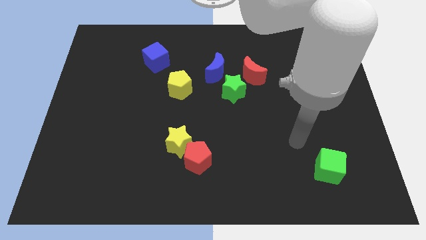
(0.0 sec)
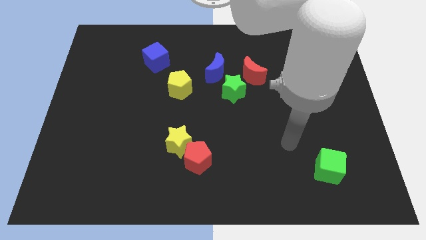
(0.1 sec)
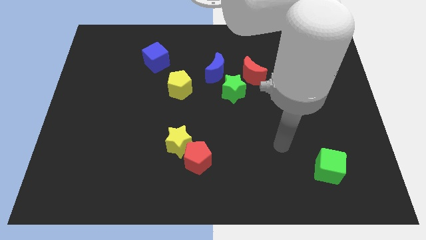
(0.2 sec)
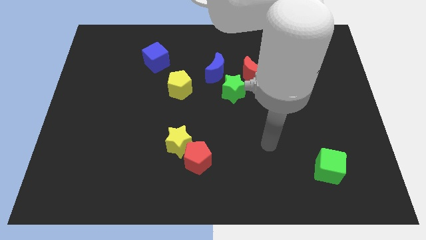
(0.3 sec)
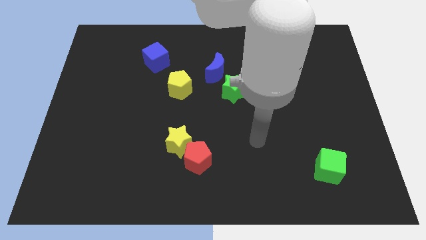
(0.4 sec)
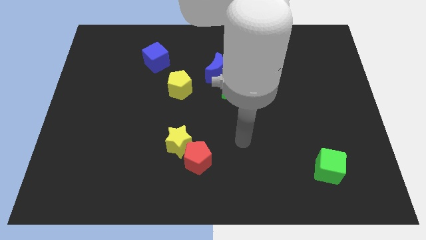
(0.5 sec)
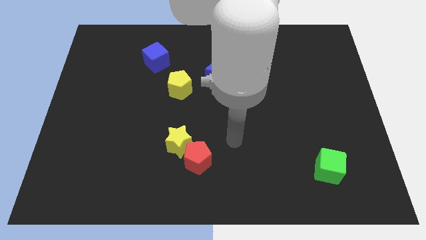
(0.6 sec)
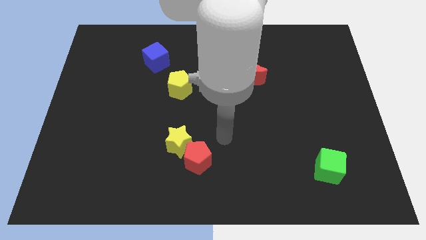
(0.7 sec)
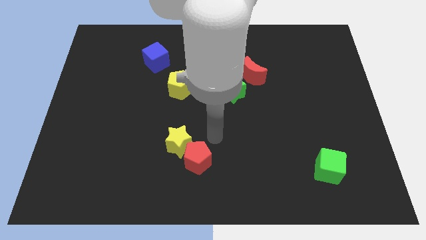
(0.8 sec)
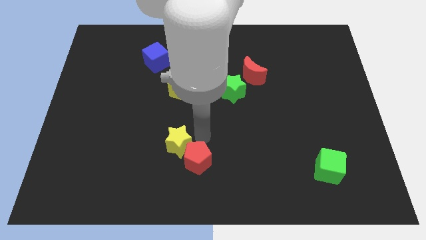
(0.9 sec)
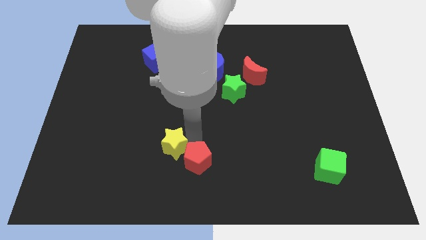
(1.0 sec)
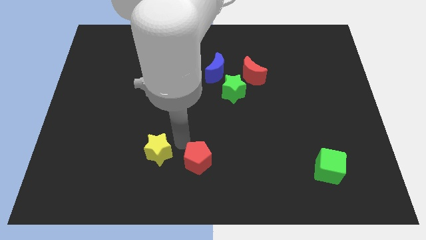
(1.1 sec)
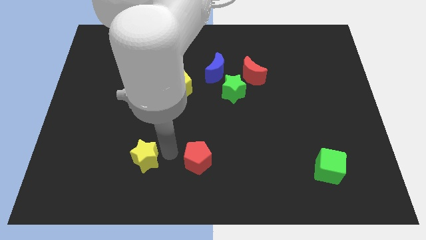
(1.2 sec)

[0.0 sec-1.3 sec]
move the red pentagon away from the yellow star

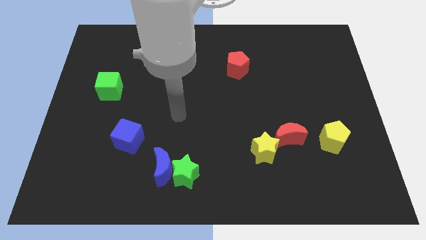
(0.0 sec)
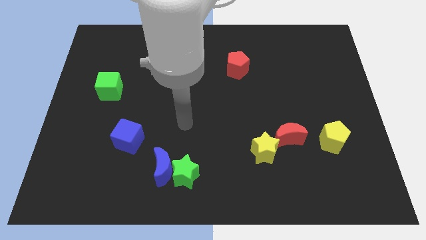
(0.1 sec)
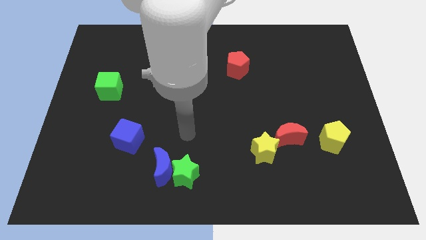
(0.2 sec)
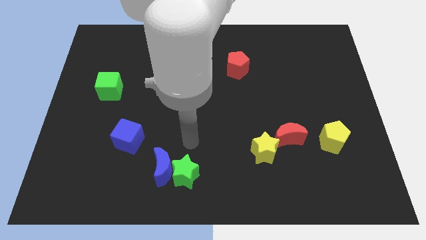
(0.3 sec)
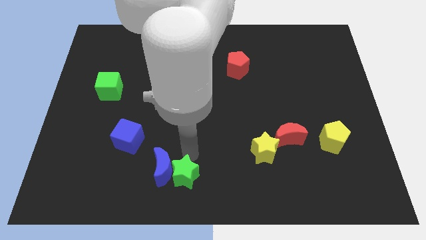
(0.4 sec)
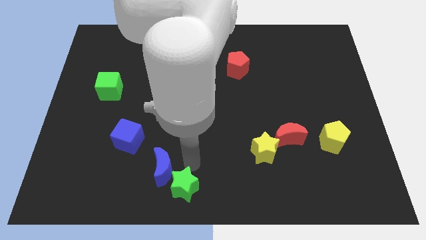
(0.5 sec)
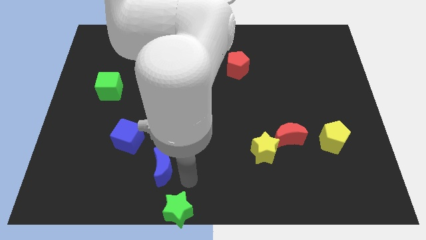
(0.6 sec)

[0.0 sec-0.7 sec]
move the blue moon away from the green star

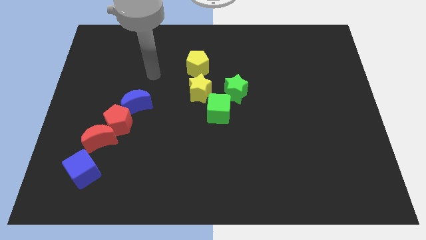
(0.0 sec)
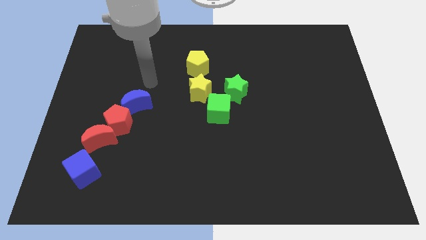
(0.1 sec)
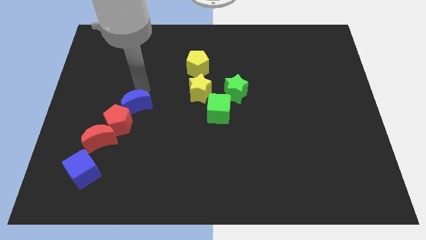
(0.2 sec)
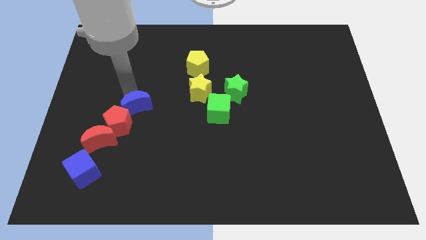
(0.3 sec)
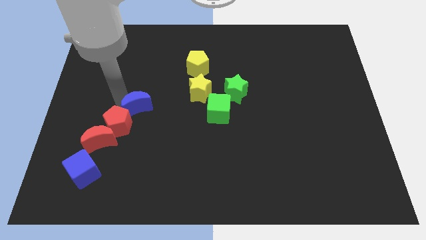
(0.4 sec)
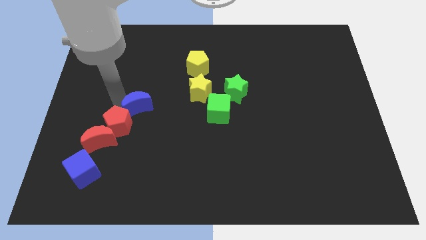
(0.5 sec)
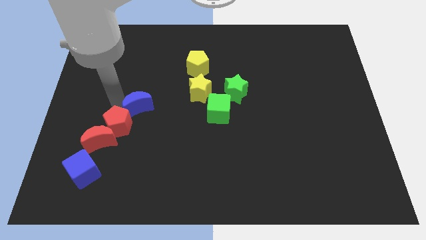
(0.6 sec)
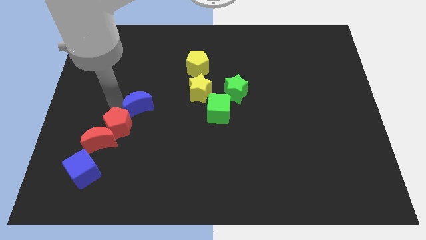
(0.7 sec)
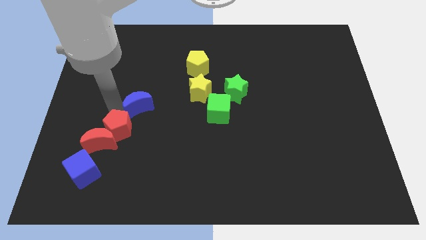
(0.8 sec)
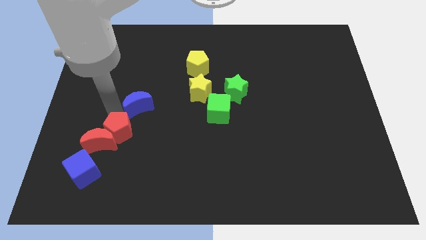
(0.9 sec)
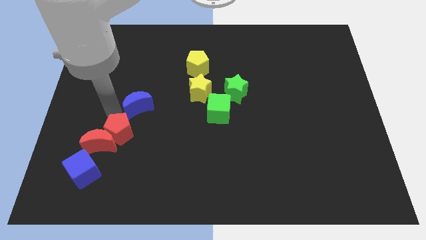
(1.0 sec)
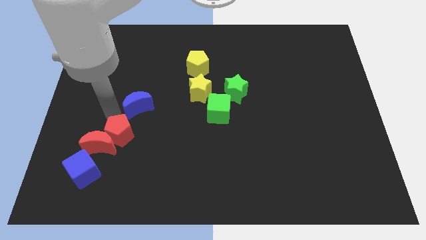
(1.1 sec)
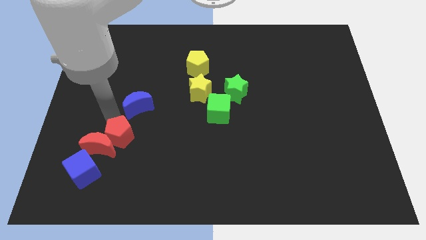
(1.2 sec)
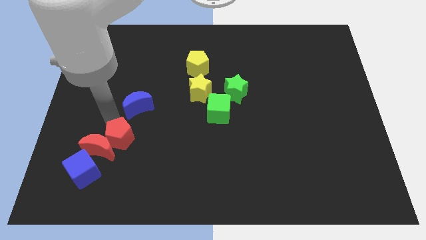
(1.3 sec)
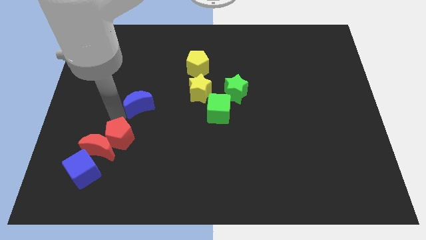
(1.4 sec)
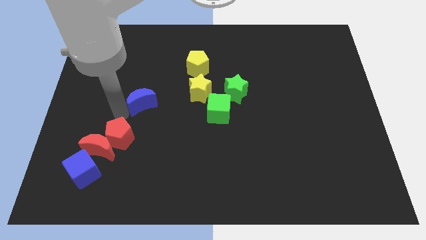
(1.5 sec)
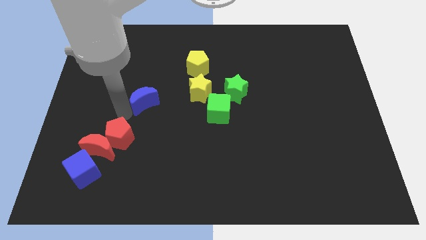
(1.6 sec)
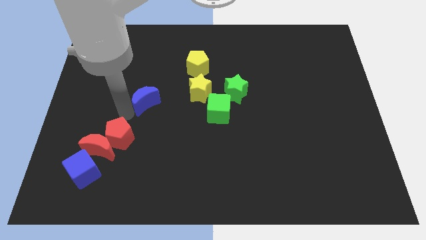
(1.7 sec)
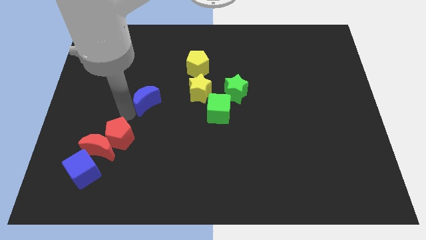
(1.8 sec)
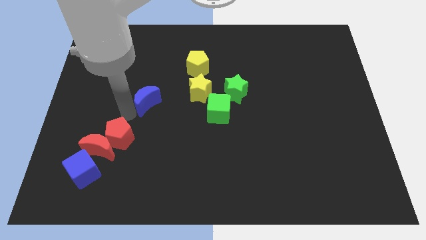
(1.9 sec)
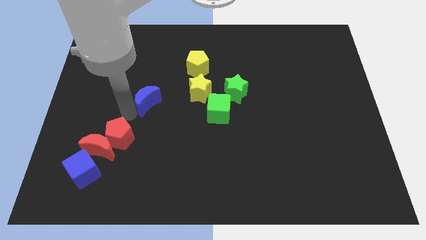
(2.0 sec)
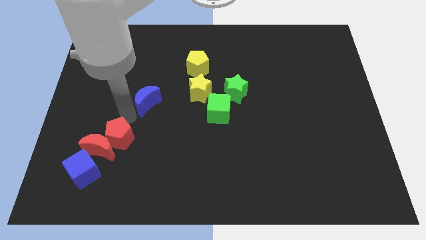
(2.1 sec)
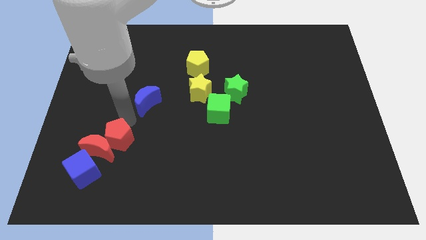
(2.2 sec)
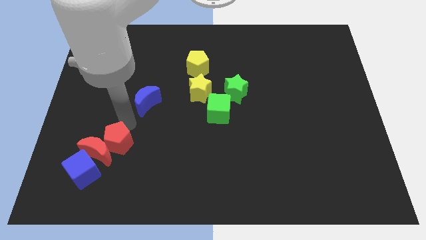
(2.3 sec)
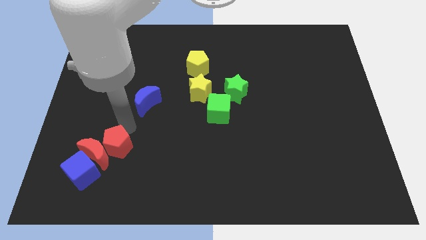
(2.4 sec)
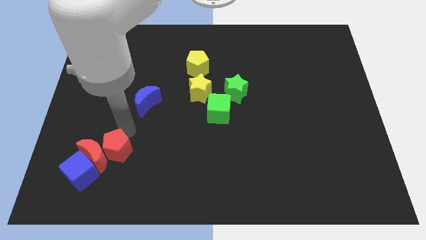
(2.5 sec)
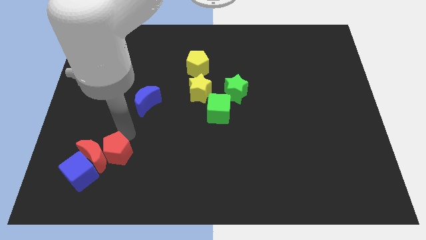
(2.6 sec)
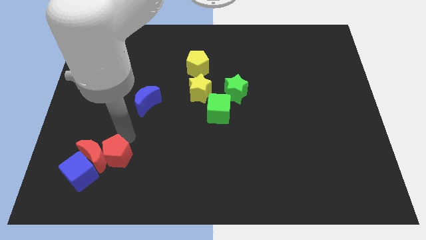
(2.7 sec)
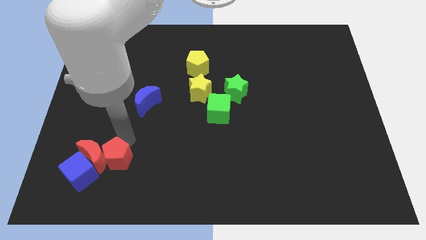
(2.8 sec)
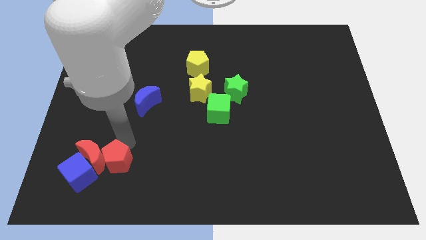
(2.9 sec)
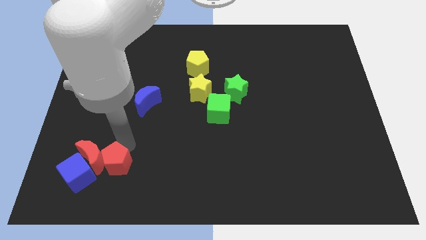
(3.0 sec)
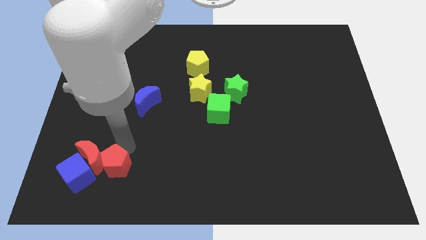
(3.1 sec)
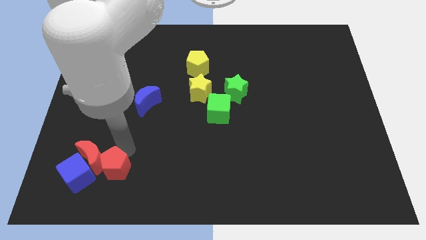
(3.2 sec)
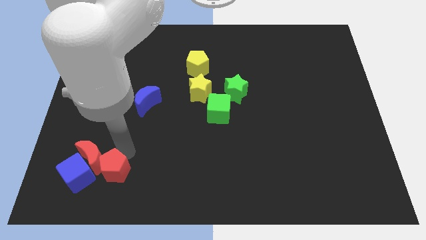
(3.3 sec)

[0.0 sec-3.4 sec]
move the red pentagon away from the red moon and blue moon

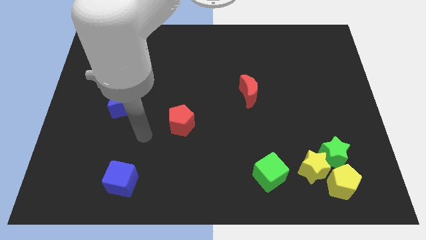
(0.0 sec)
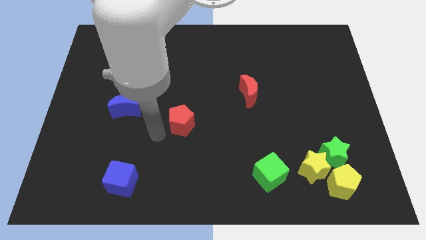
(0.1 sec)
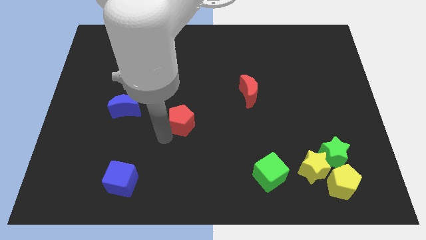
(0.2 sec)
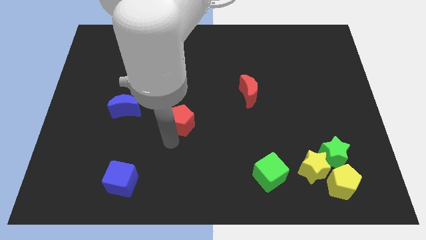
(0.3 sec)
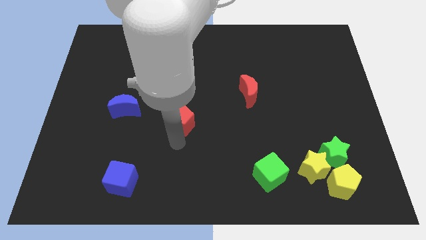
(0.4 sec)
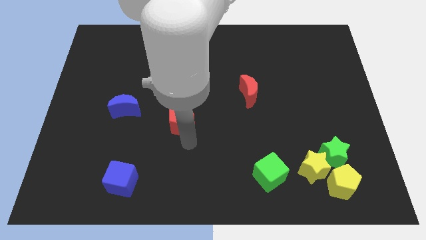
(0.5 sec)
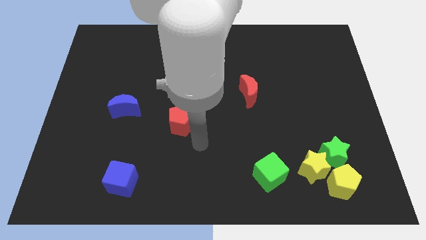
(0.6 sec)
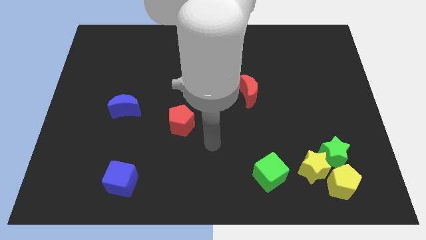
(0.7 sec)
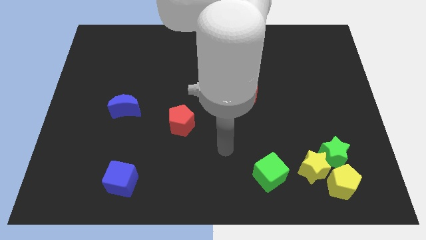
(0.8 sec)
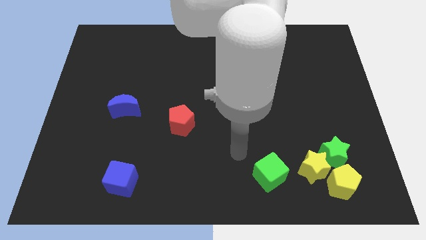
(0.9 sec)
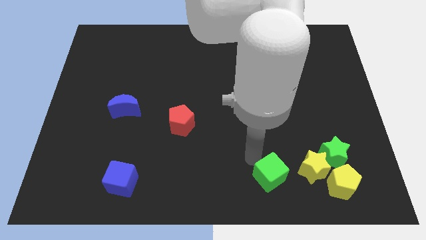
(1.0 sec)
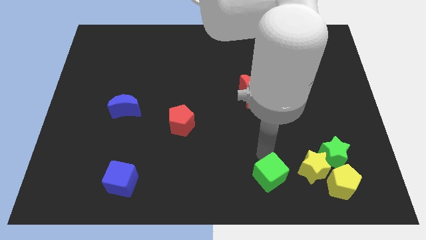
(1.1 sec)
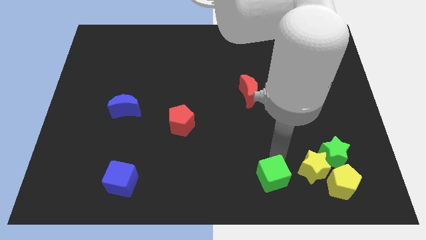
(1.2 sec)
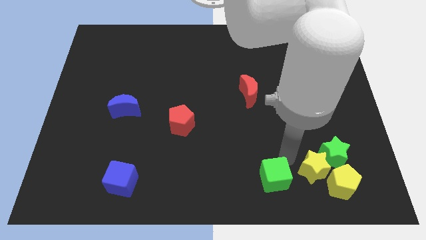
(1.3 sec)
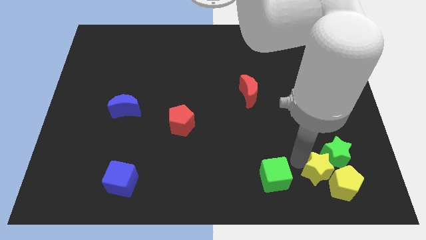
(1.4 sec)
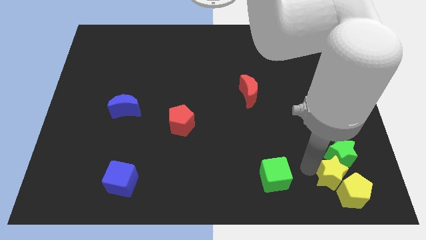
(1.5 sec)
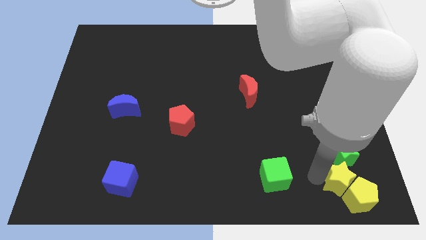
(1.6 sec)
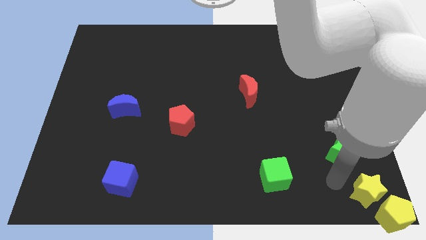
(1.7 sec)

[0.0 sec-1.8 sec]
pull the green star apart from the yellow star and yellow pentagon

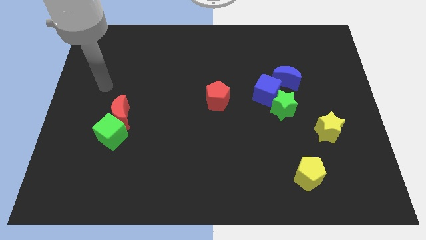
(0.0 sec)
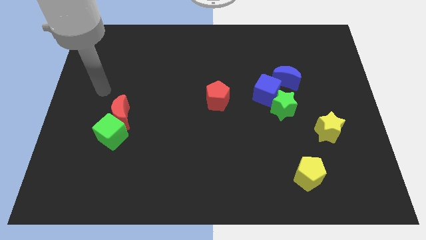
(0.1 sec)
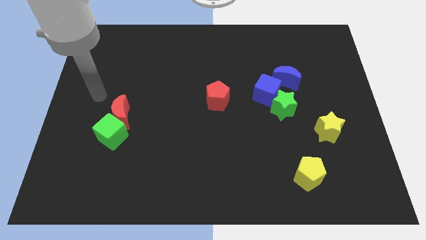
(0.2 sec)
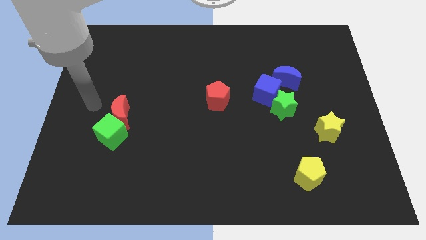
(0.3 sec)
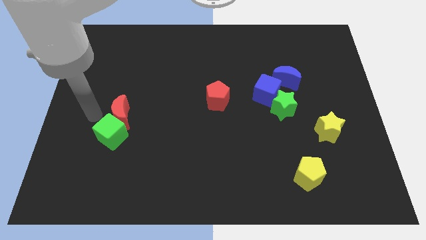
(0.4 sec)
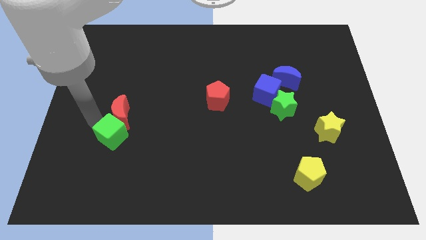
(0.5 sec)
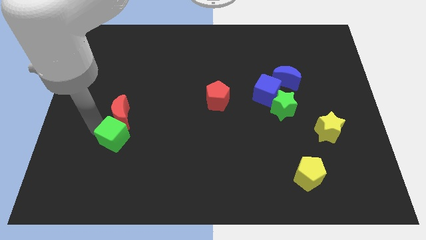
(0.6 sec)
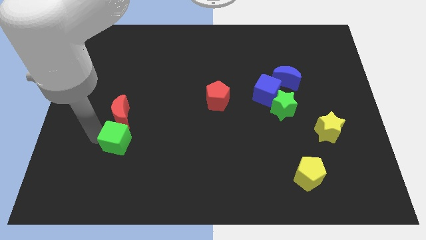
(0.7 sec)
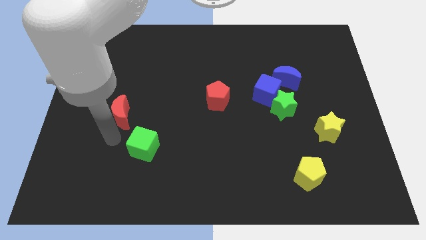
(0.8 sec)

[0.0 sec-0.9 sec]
separate the red moon from the green cube

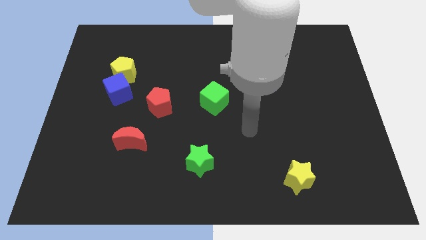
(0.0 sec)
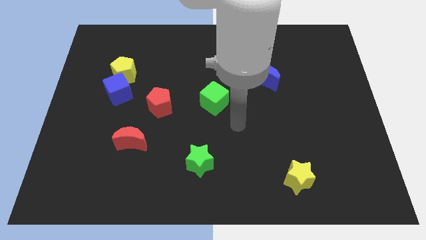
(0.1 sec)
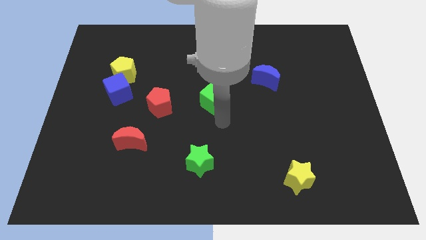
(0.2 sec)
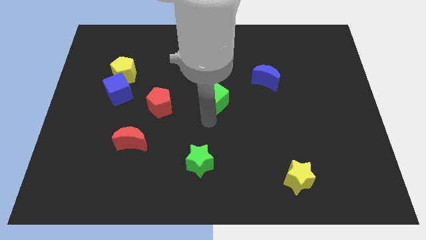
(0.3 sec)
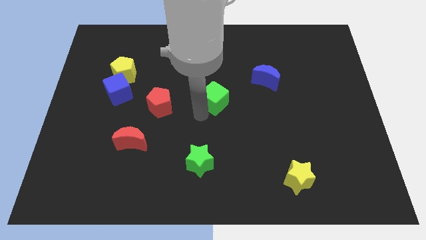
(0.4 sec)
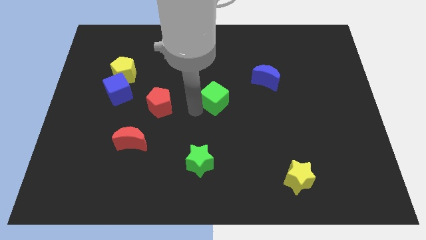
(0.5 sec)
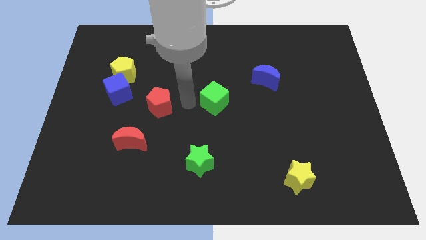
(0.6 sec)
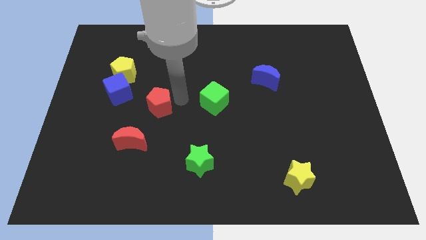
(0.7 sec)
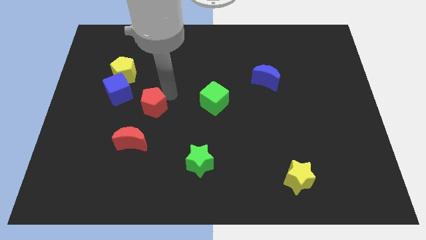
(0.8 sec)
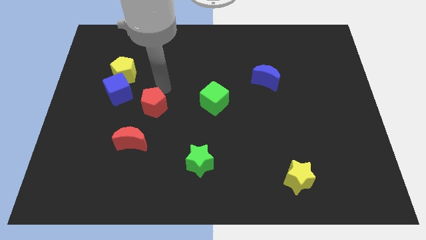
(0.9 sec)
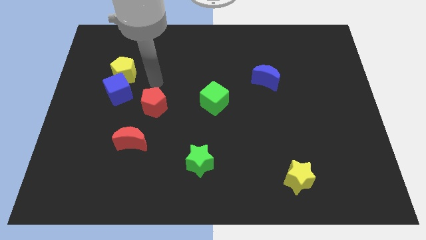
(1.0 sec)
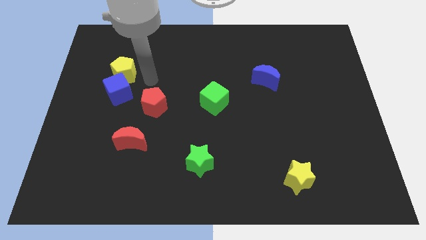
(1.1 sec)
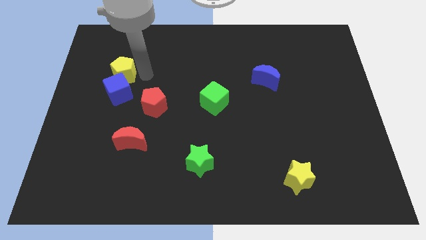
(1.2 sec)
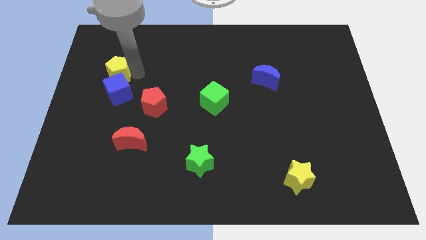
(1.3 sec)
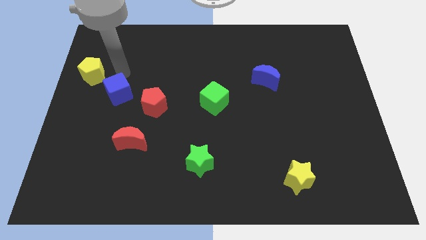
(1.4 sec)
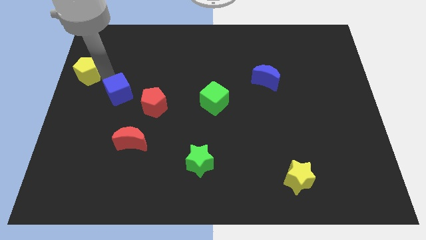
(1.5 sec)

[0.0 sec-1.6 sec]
pull the blue cube apart from the yellow pentagon
